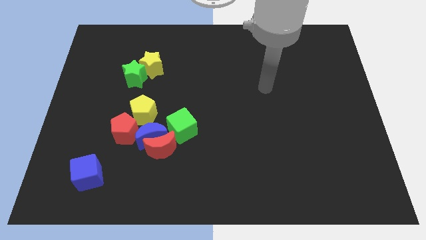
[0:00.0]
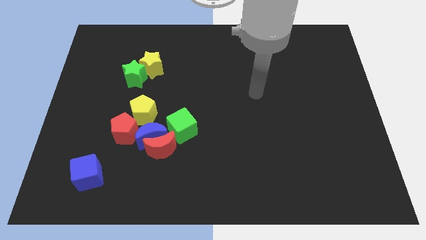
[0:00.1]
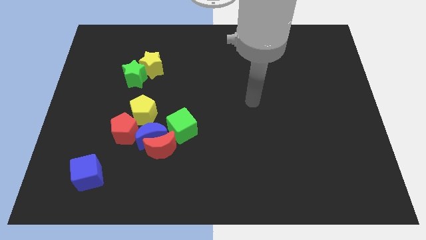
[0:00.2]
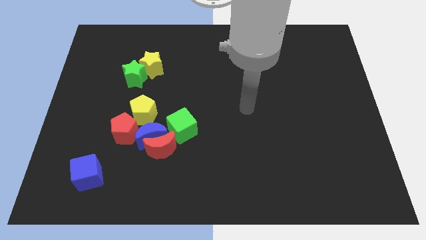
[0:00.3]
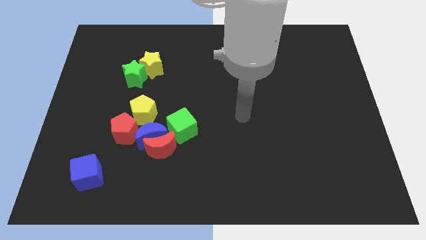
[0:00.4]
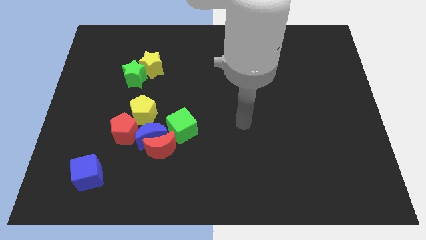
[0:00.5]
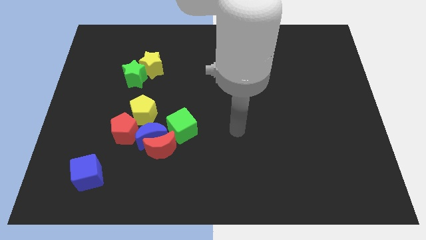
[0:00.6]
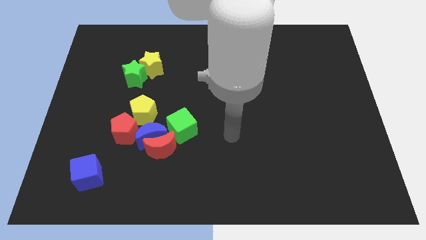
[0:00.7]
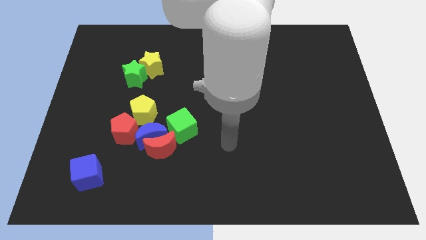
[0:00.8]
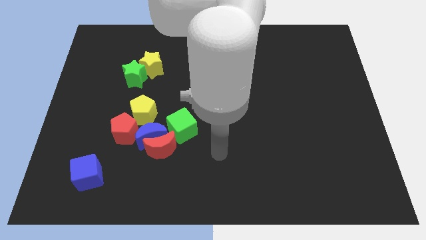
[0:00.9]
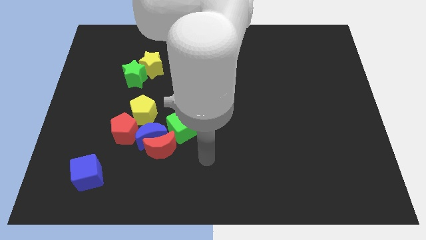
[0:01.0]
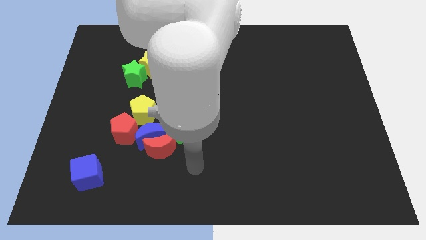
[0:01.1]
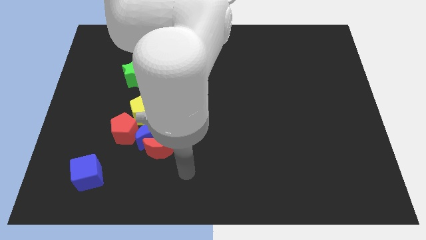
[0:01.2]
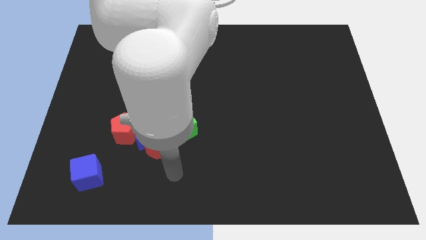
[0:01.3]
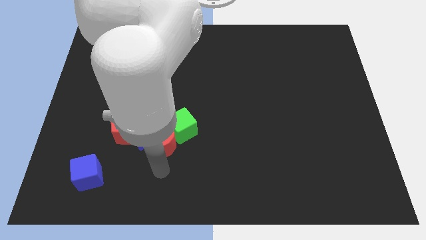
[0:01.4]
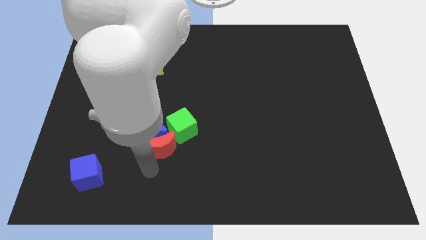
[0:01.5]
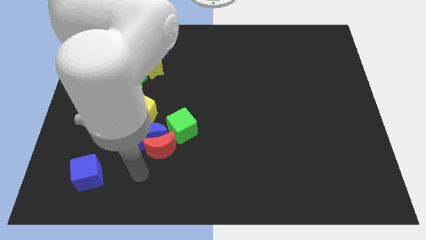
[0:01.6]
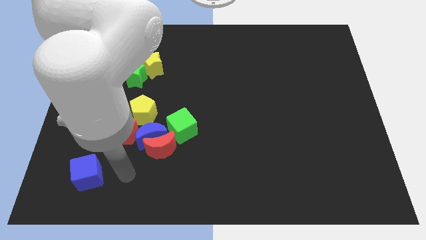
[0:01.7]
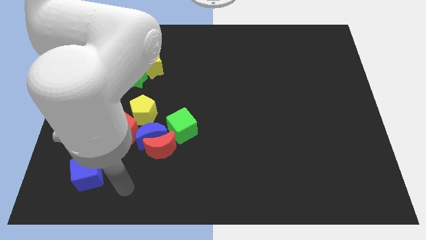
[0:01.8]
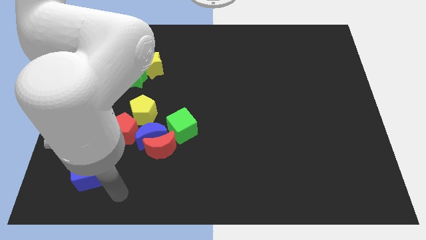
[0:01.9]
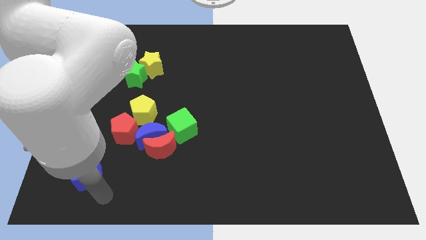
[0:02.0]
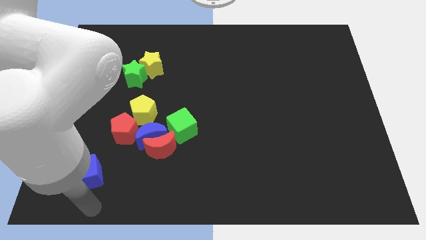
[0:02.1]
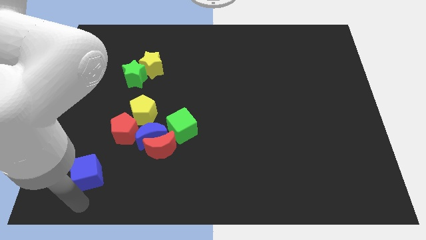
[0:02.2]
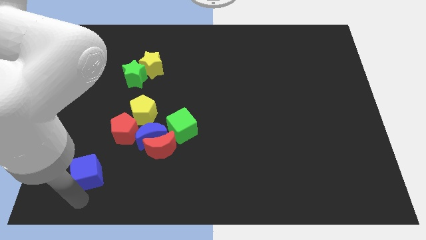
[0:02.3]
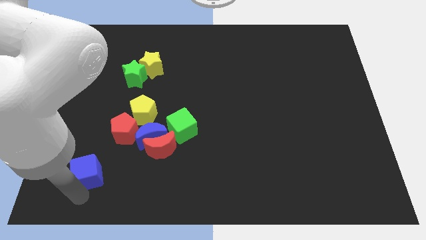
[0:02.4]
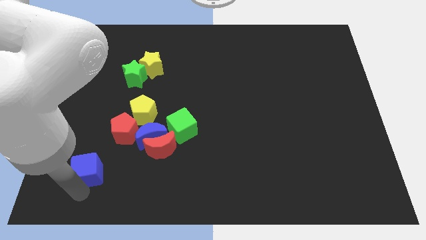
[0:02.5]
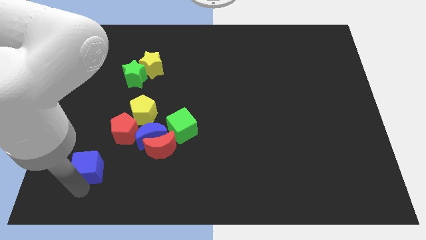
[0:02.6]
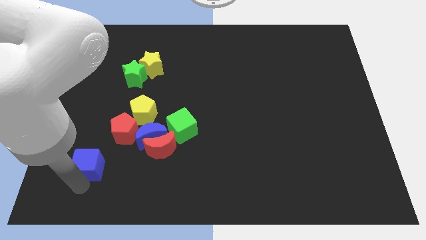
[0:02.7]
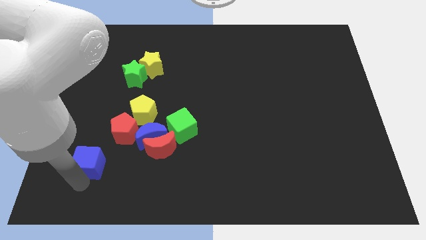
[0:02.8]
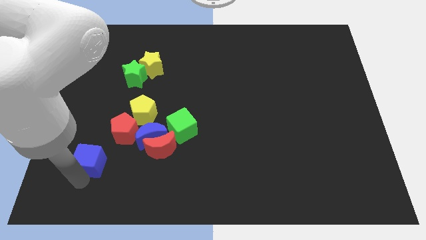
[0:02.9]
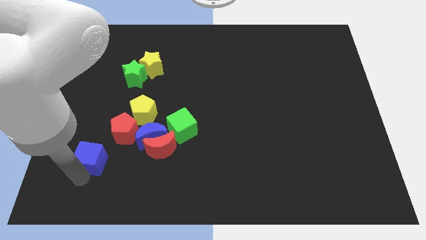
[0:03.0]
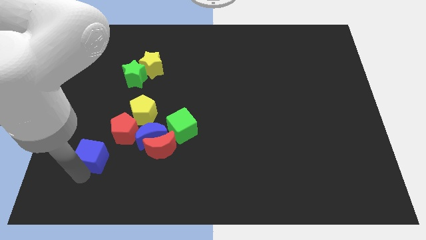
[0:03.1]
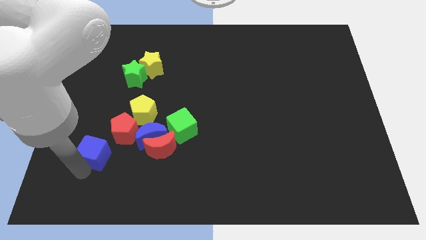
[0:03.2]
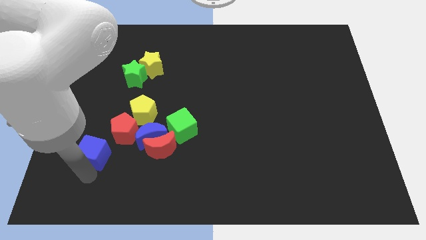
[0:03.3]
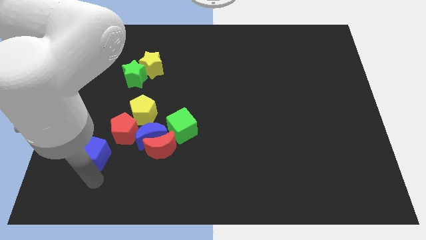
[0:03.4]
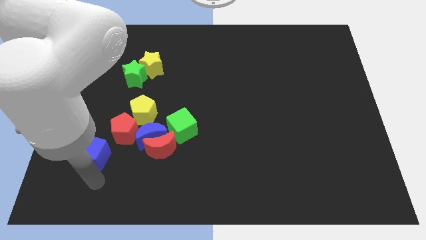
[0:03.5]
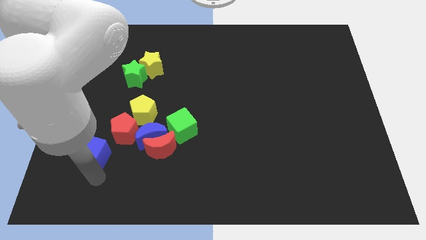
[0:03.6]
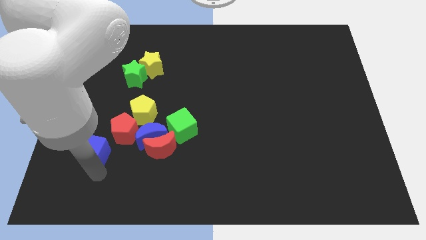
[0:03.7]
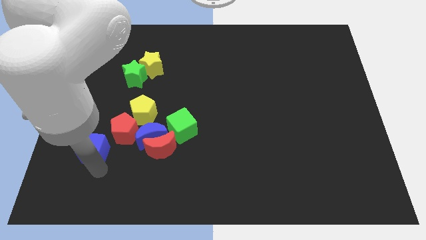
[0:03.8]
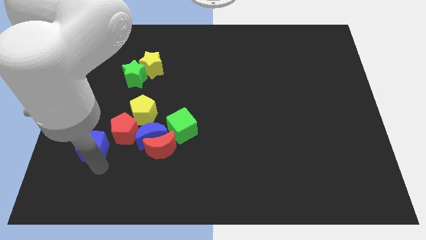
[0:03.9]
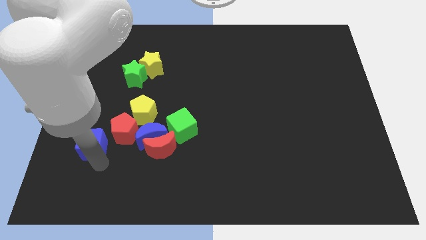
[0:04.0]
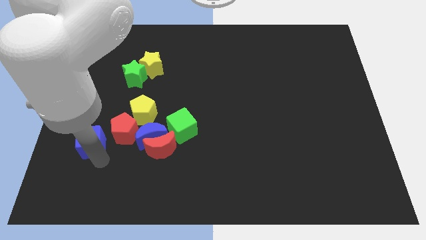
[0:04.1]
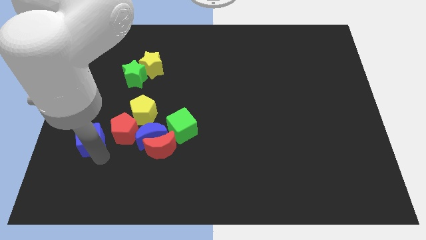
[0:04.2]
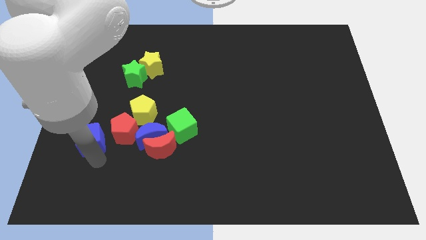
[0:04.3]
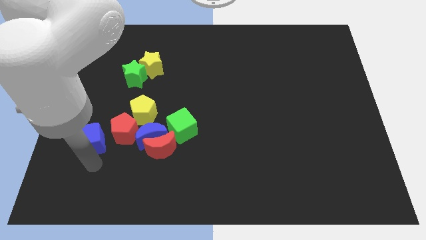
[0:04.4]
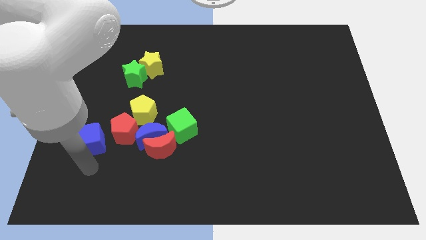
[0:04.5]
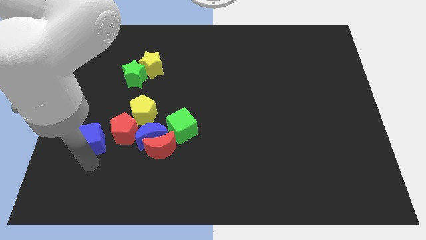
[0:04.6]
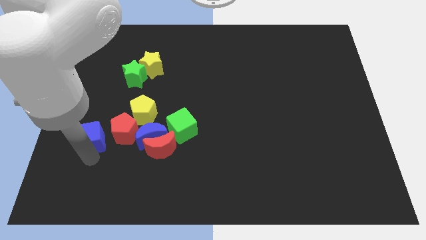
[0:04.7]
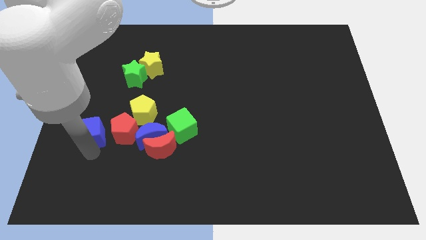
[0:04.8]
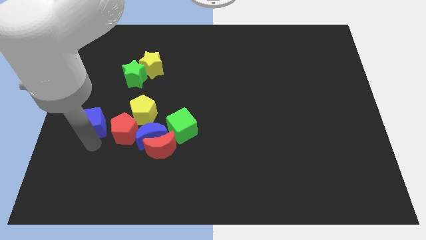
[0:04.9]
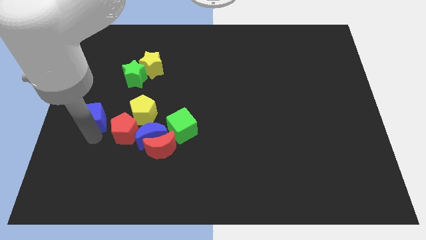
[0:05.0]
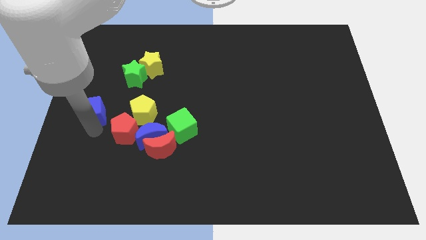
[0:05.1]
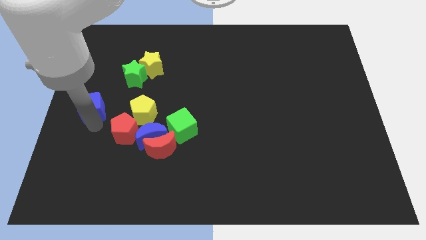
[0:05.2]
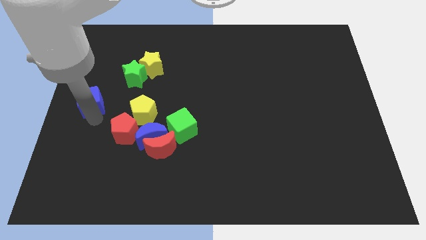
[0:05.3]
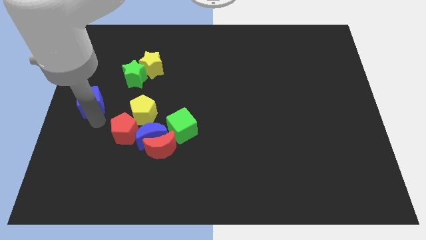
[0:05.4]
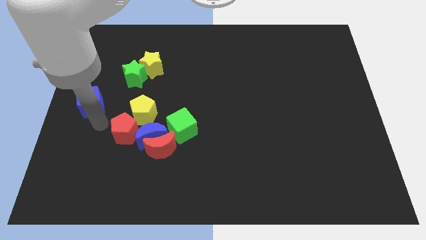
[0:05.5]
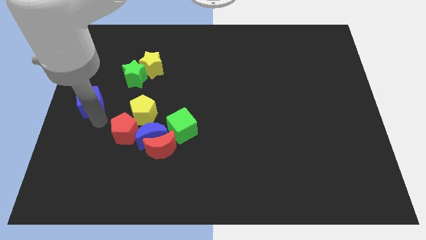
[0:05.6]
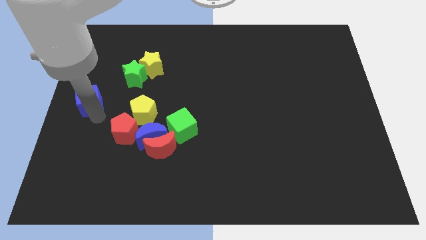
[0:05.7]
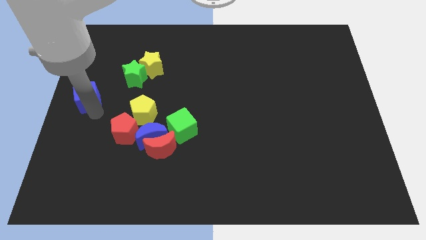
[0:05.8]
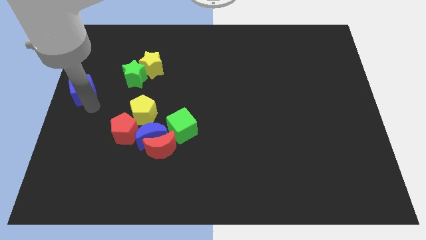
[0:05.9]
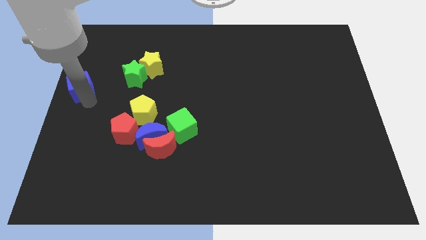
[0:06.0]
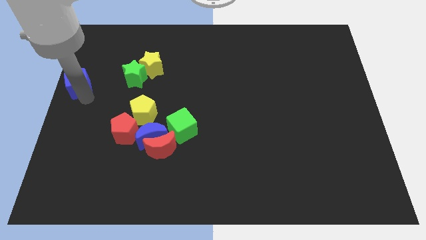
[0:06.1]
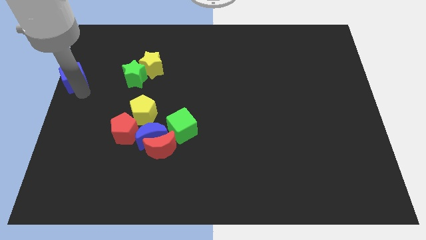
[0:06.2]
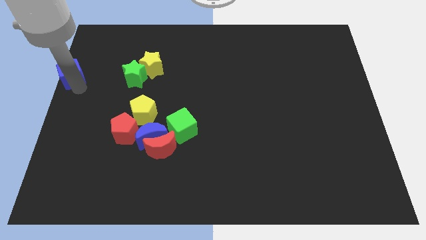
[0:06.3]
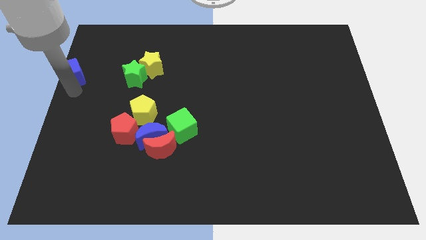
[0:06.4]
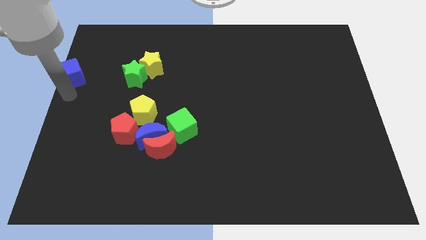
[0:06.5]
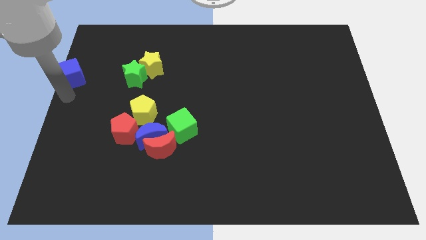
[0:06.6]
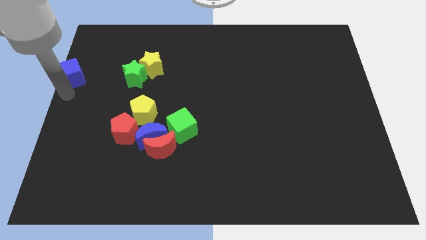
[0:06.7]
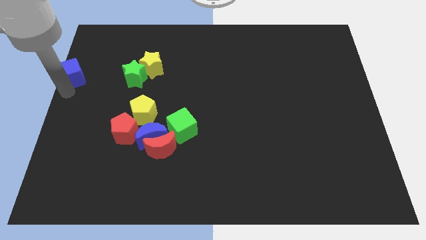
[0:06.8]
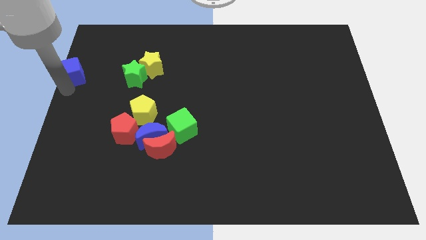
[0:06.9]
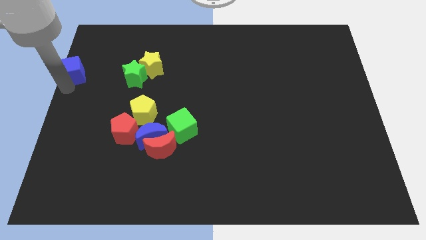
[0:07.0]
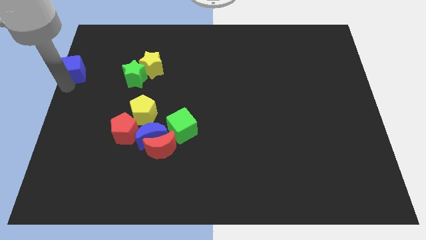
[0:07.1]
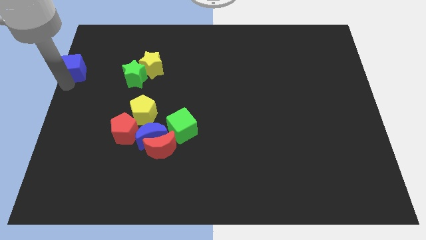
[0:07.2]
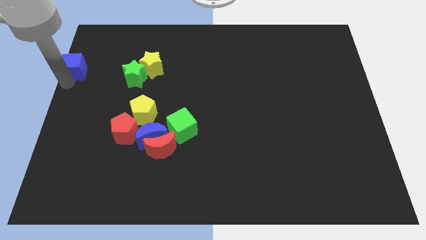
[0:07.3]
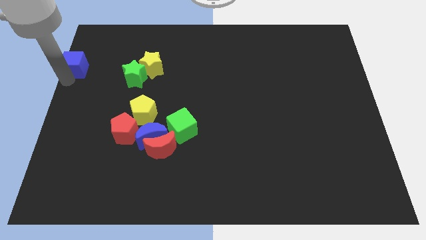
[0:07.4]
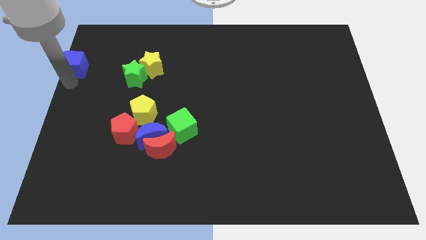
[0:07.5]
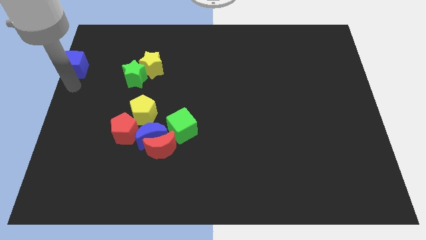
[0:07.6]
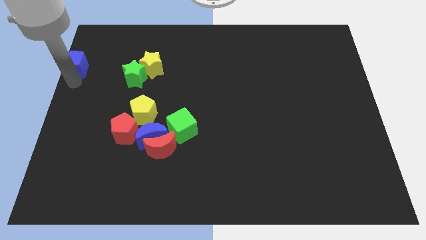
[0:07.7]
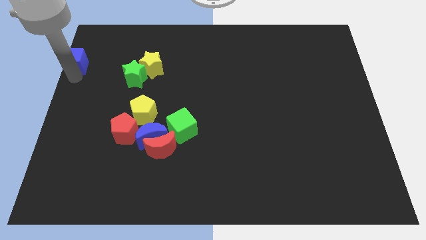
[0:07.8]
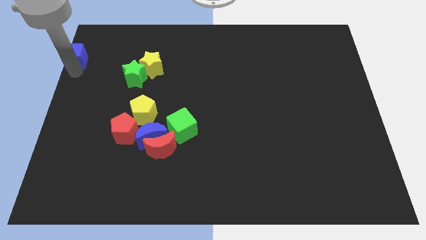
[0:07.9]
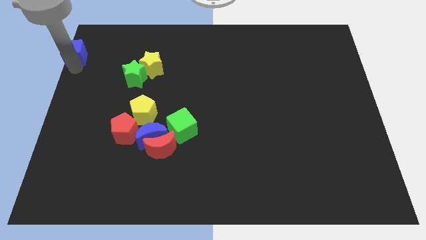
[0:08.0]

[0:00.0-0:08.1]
slide the blue cube to the upper left corner
